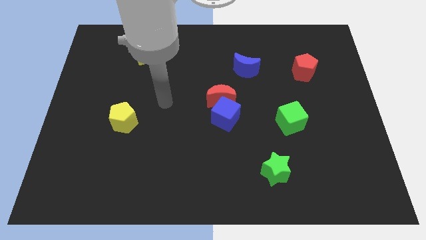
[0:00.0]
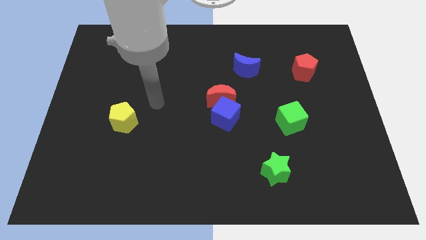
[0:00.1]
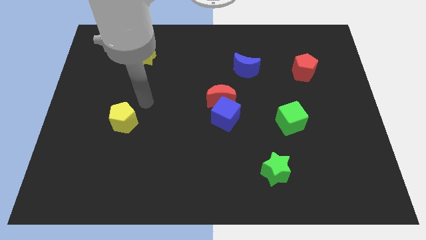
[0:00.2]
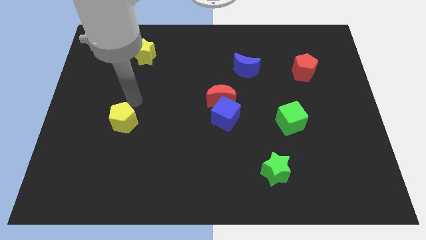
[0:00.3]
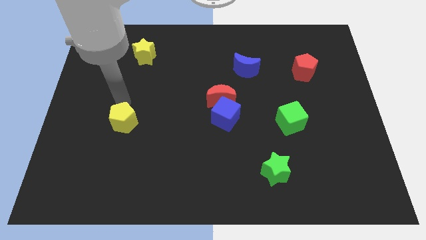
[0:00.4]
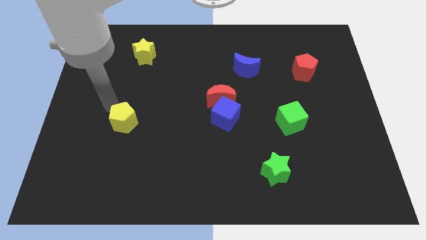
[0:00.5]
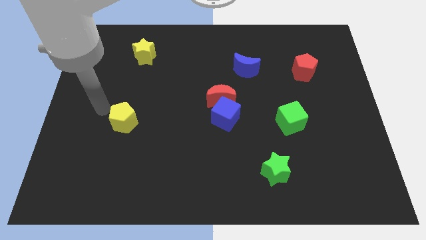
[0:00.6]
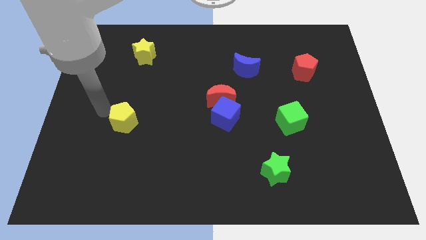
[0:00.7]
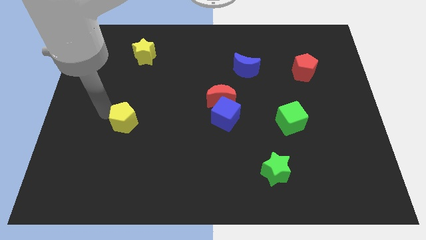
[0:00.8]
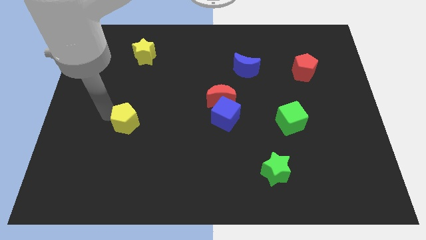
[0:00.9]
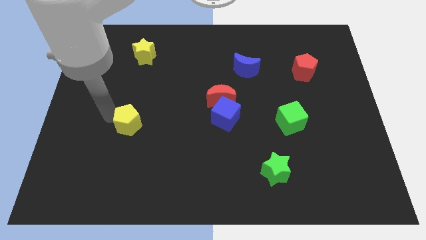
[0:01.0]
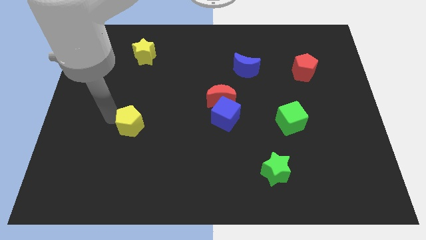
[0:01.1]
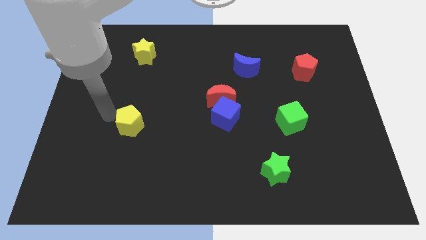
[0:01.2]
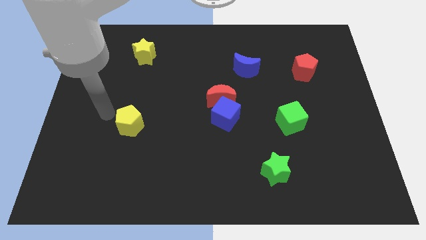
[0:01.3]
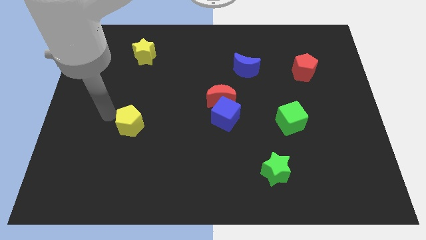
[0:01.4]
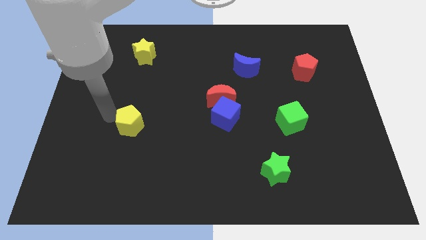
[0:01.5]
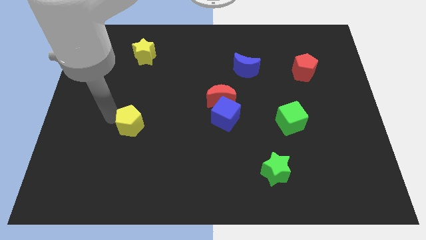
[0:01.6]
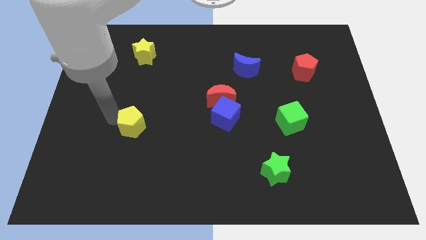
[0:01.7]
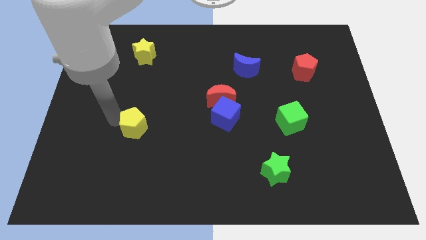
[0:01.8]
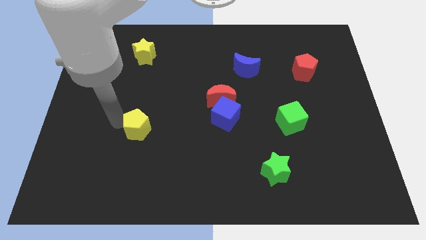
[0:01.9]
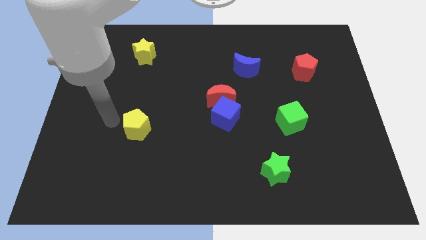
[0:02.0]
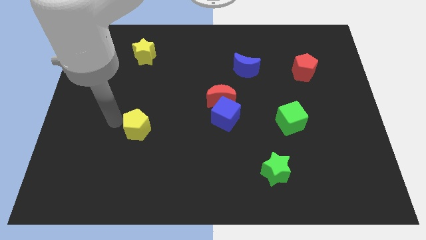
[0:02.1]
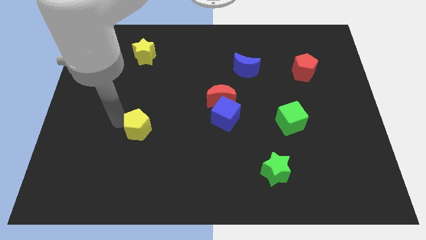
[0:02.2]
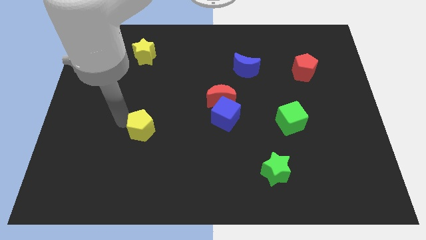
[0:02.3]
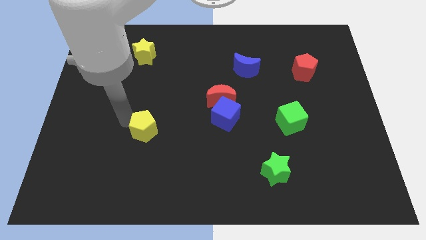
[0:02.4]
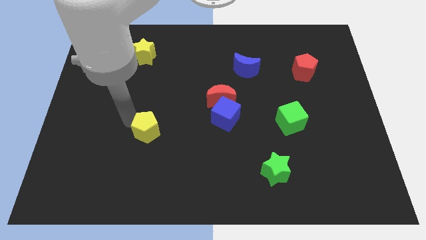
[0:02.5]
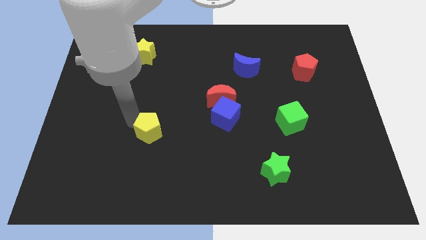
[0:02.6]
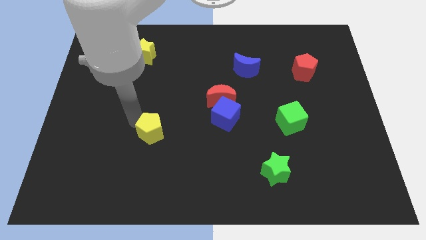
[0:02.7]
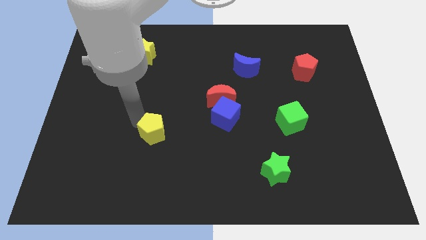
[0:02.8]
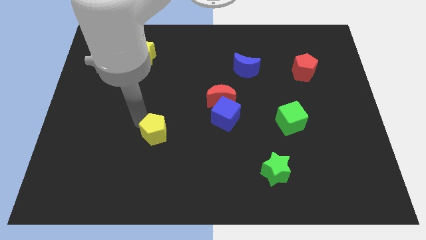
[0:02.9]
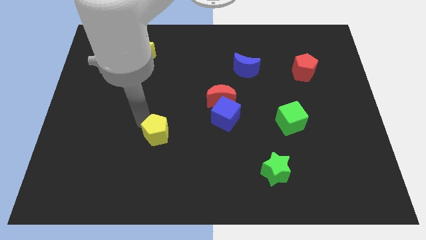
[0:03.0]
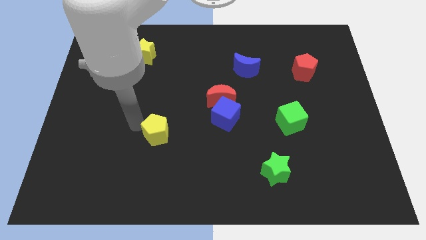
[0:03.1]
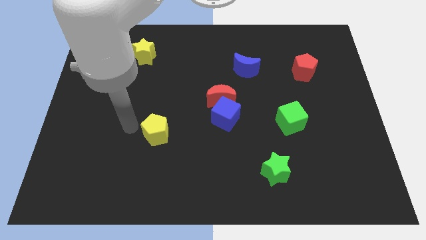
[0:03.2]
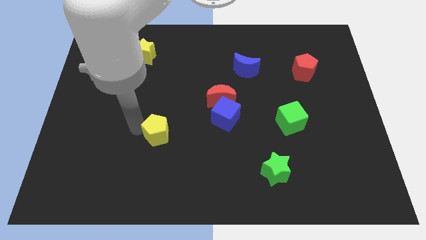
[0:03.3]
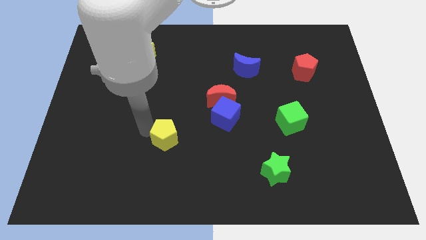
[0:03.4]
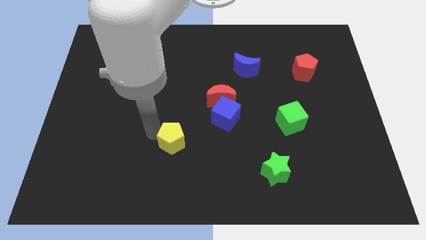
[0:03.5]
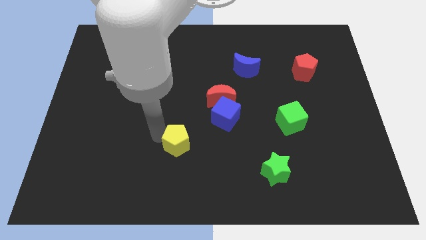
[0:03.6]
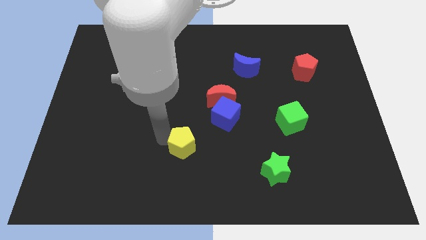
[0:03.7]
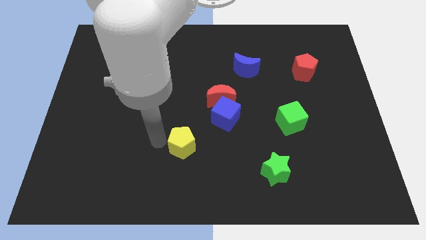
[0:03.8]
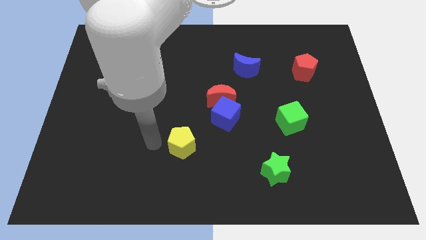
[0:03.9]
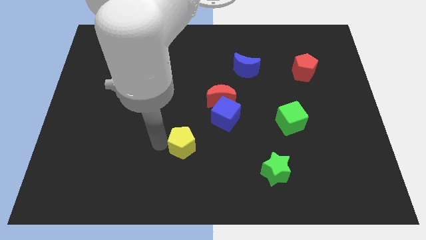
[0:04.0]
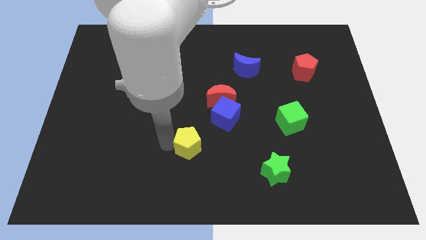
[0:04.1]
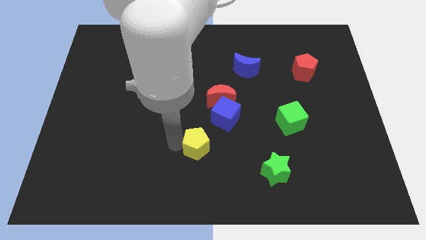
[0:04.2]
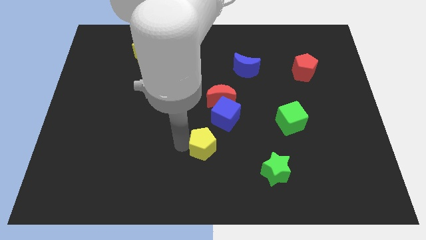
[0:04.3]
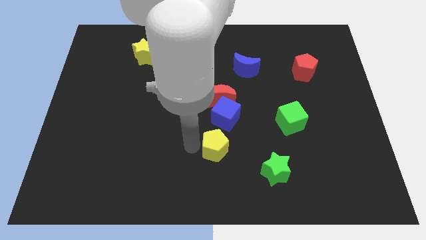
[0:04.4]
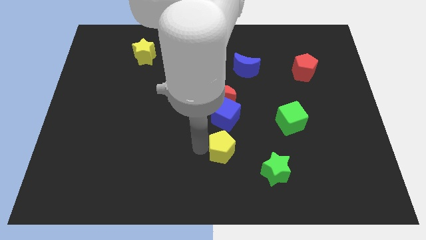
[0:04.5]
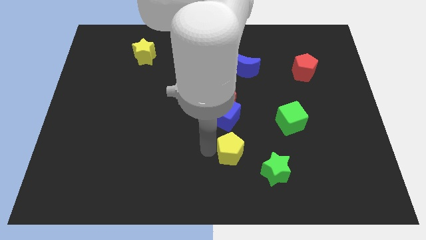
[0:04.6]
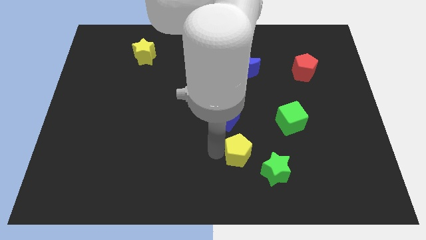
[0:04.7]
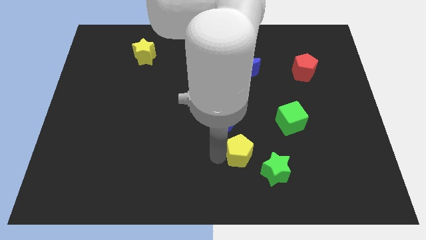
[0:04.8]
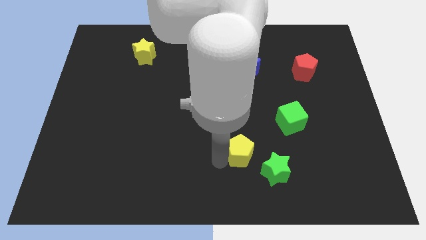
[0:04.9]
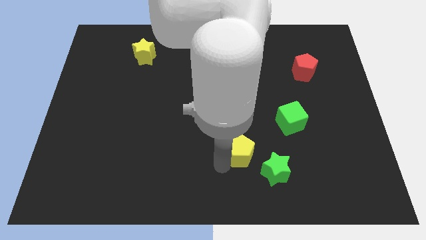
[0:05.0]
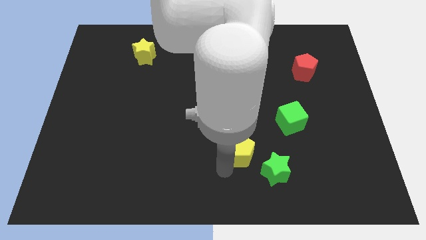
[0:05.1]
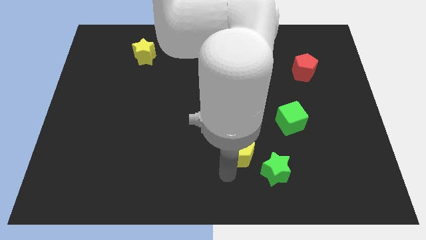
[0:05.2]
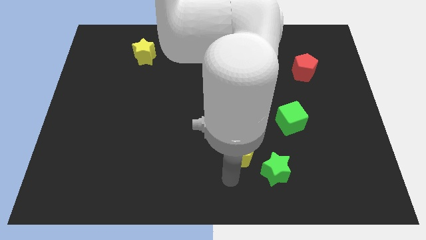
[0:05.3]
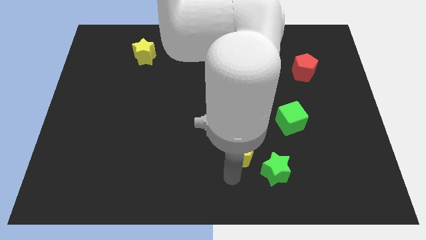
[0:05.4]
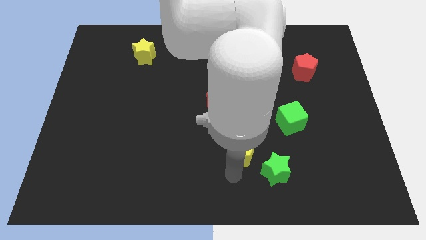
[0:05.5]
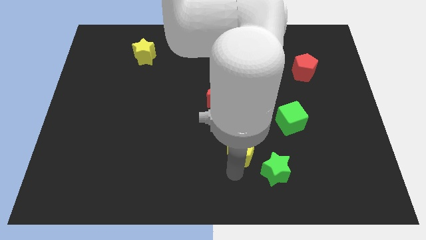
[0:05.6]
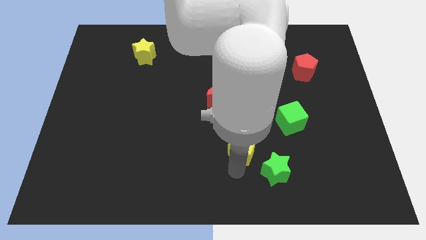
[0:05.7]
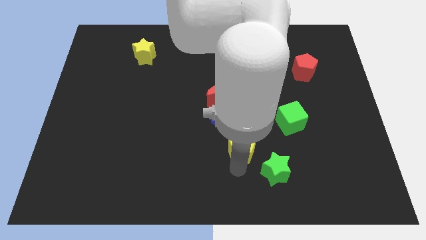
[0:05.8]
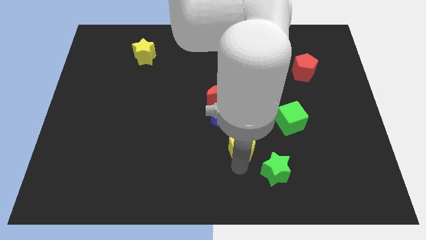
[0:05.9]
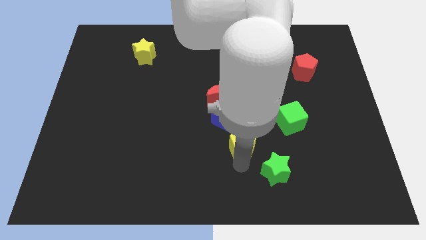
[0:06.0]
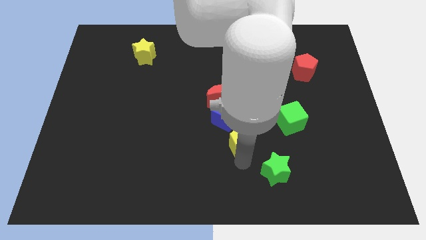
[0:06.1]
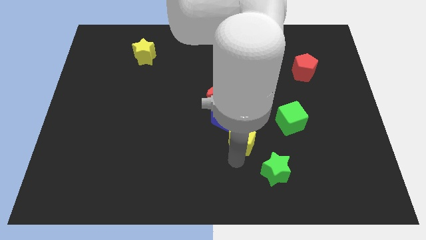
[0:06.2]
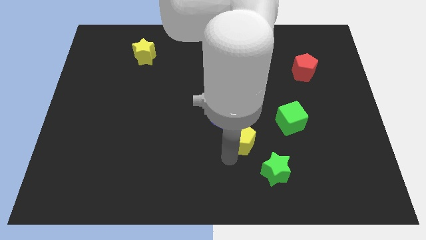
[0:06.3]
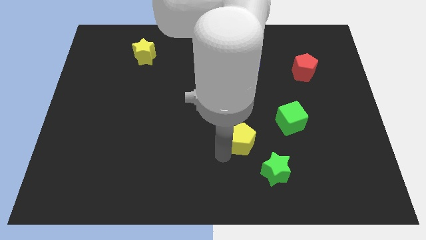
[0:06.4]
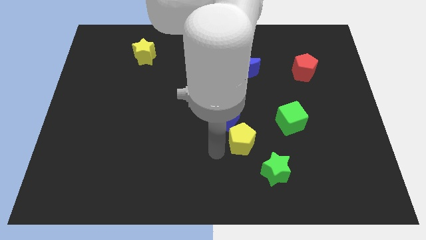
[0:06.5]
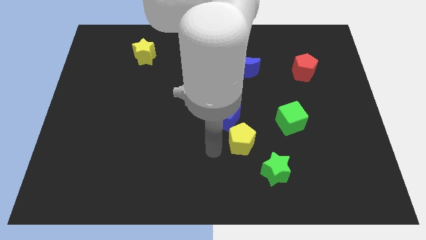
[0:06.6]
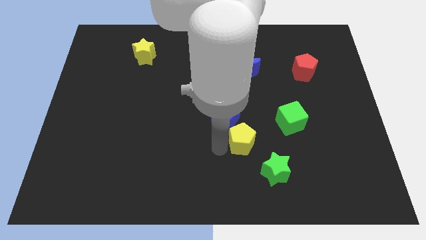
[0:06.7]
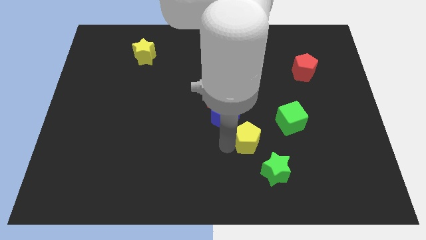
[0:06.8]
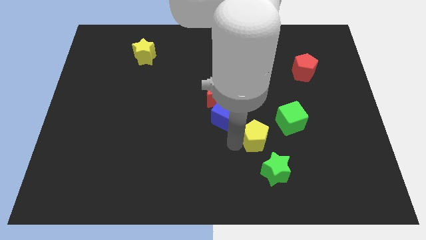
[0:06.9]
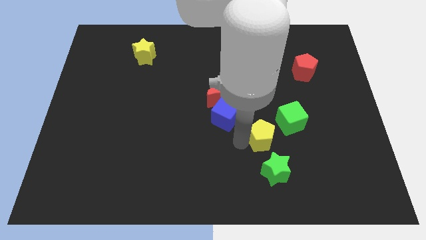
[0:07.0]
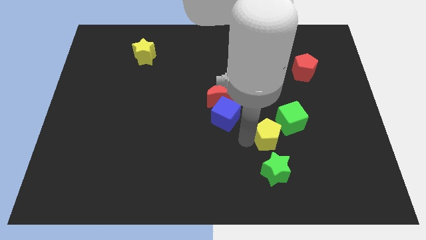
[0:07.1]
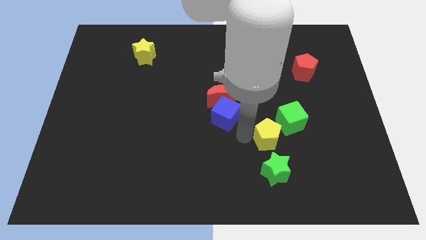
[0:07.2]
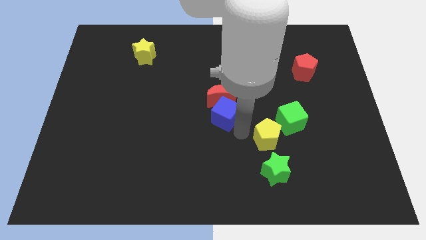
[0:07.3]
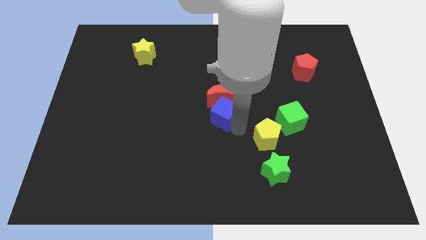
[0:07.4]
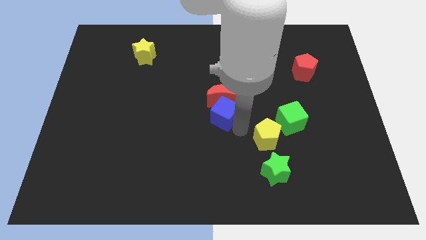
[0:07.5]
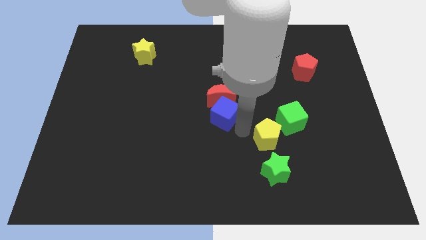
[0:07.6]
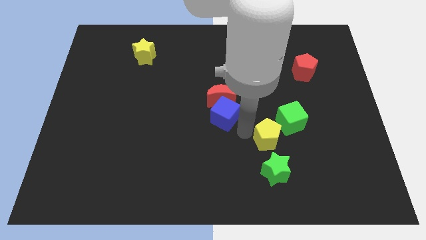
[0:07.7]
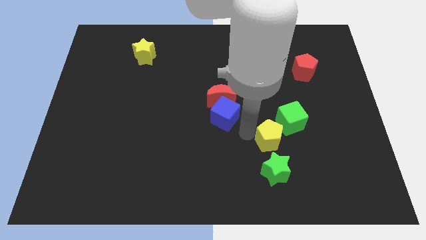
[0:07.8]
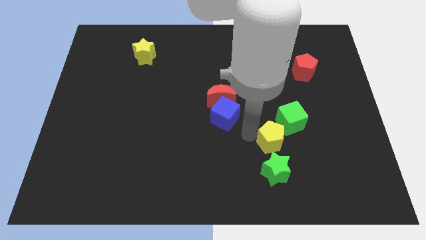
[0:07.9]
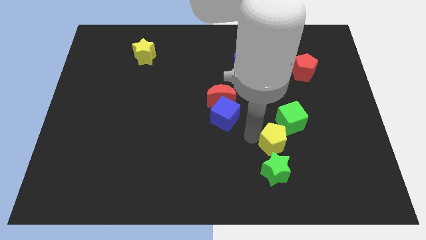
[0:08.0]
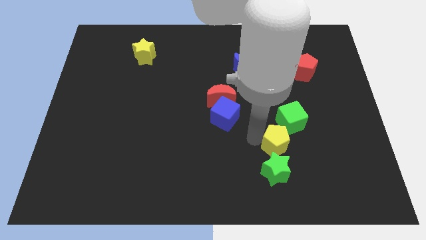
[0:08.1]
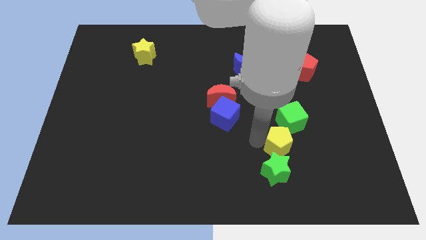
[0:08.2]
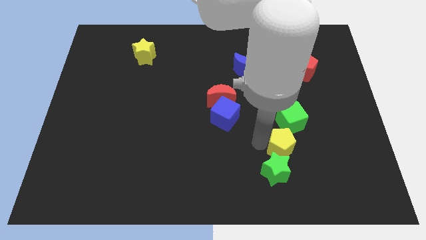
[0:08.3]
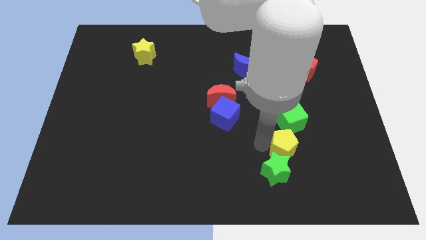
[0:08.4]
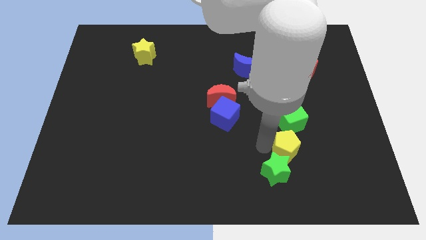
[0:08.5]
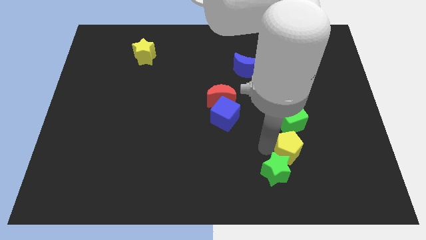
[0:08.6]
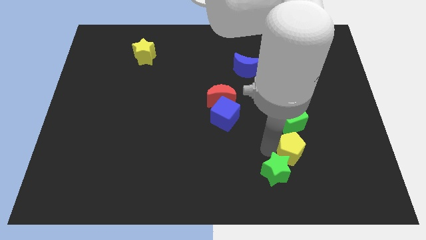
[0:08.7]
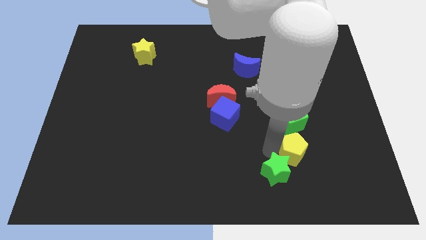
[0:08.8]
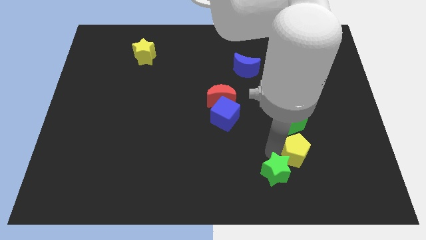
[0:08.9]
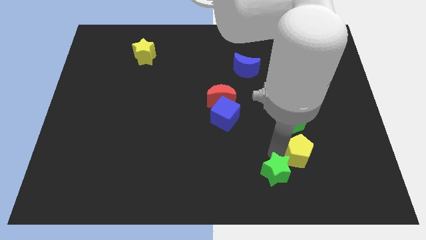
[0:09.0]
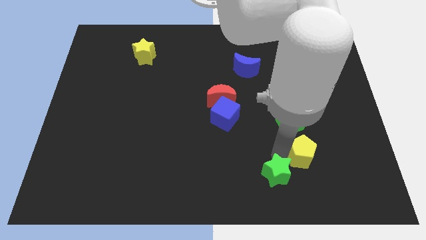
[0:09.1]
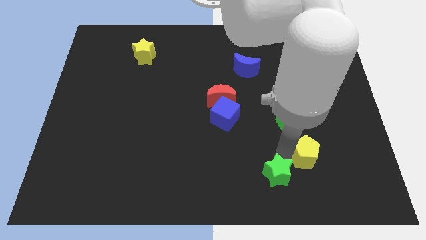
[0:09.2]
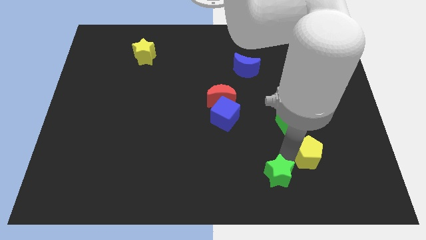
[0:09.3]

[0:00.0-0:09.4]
push the yellow pentagon to the bottom right of the green cube
